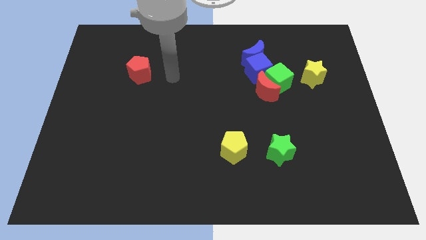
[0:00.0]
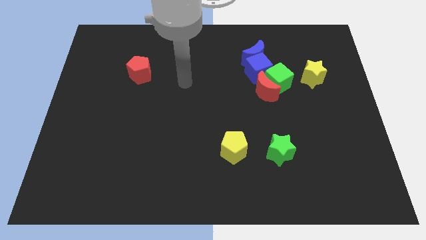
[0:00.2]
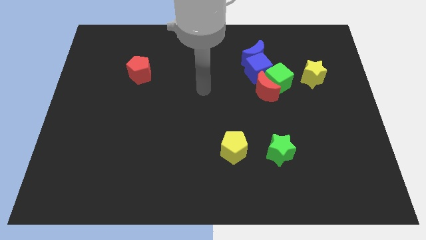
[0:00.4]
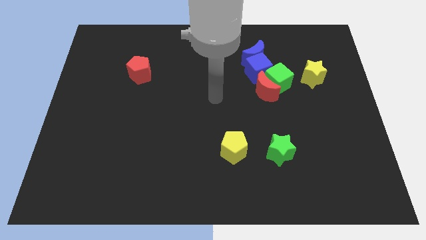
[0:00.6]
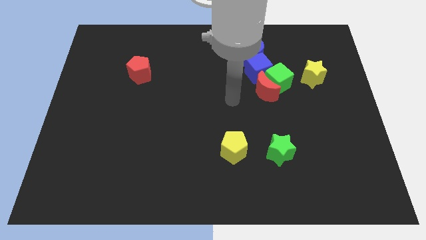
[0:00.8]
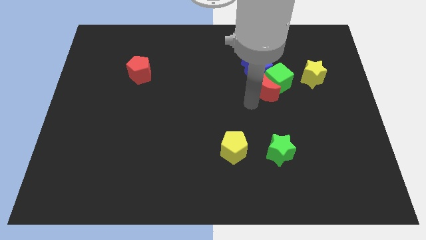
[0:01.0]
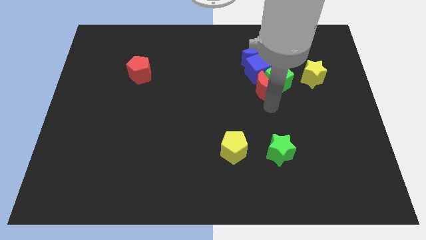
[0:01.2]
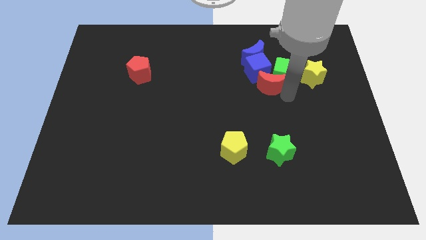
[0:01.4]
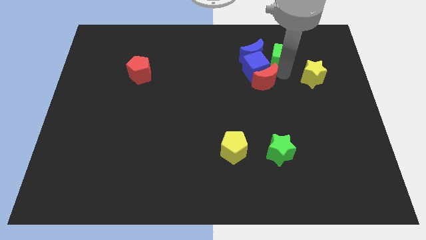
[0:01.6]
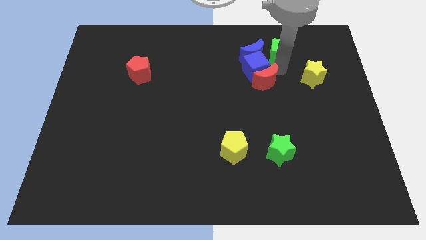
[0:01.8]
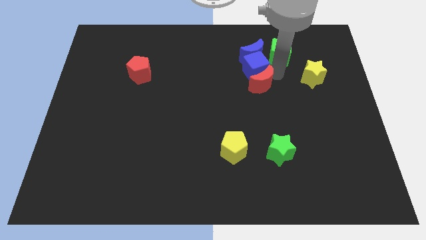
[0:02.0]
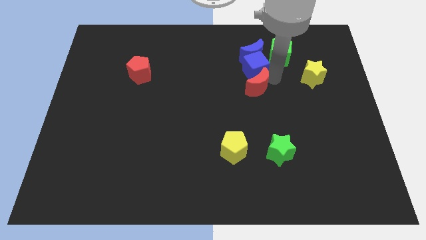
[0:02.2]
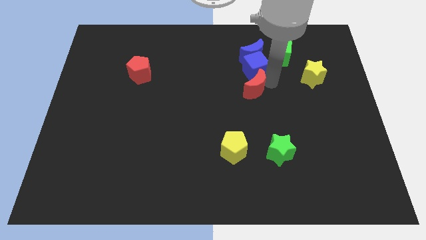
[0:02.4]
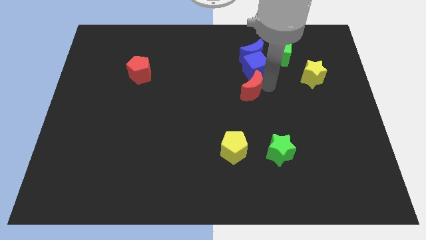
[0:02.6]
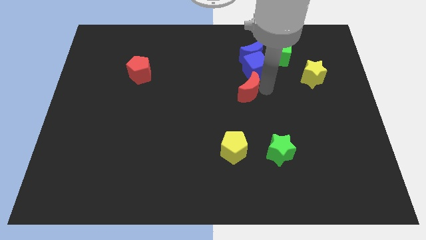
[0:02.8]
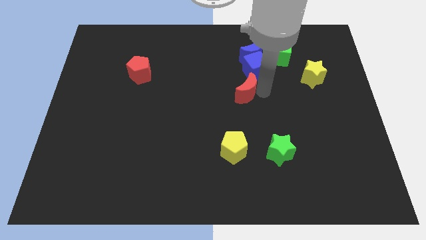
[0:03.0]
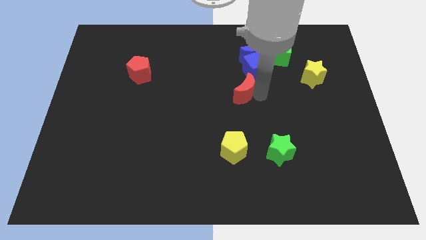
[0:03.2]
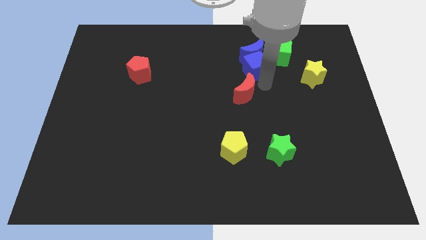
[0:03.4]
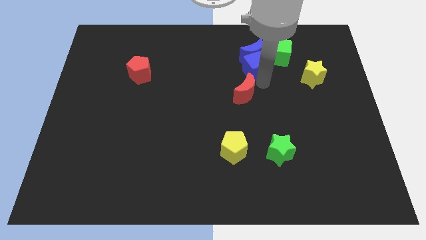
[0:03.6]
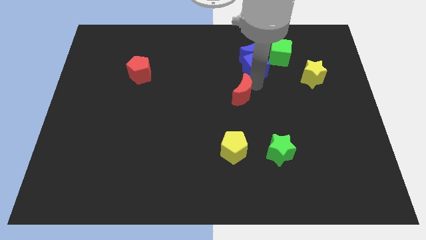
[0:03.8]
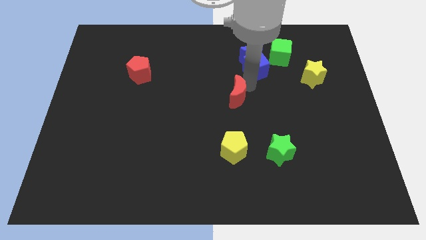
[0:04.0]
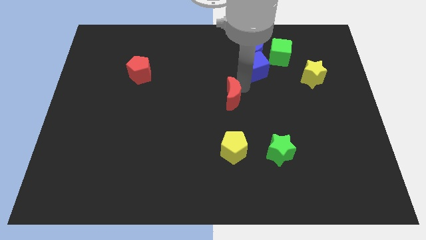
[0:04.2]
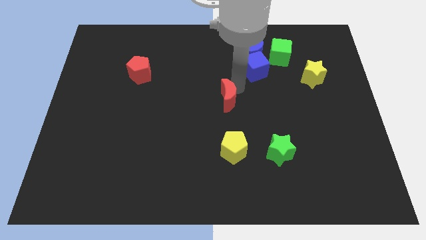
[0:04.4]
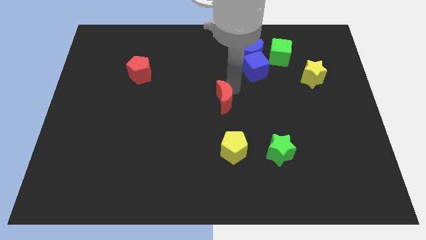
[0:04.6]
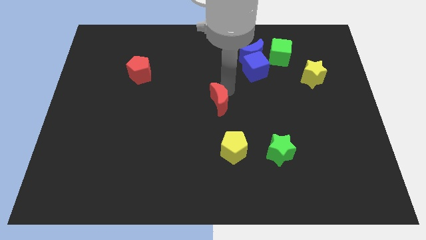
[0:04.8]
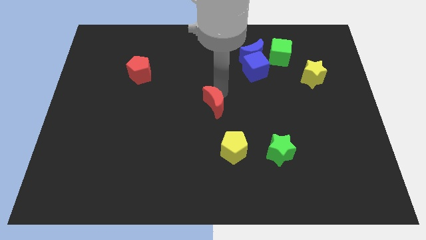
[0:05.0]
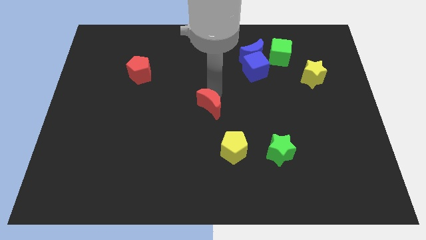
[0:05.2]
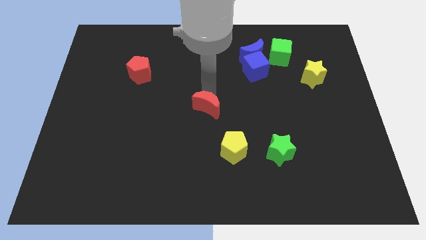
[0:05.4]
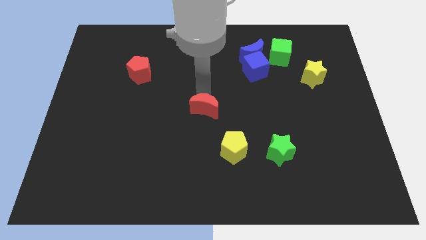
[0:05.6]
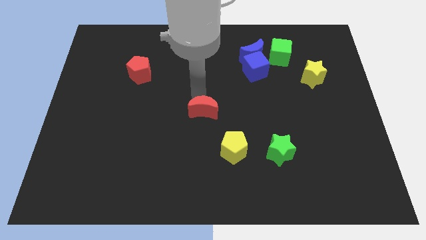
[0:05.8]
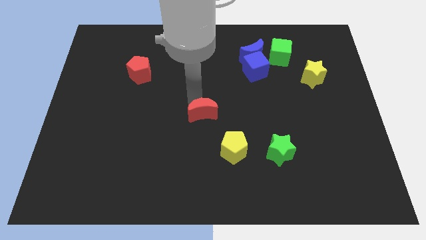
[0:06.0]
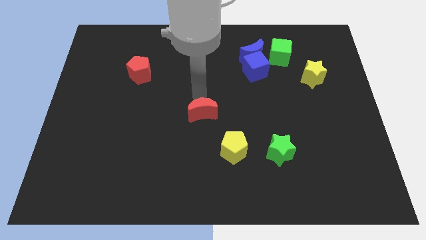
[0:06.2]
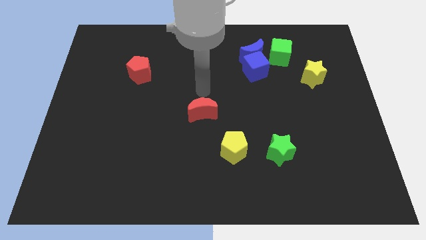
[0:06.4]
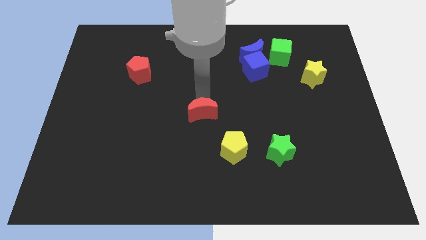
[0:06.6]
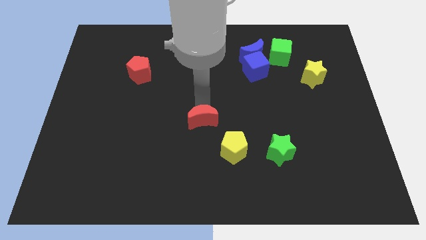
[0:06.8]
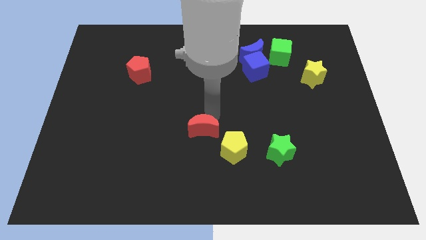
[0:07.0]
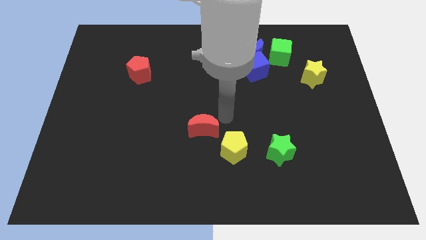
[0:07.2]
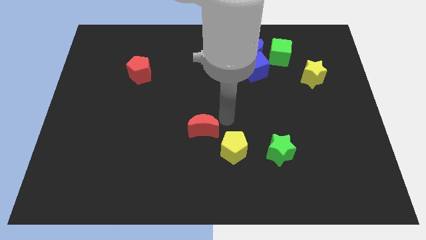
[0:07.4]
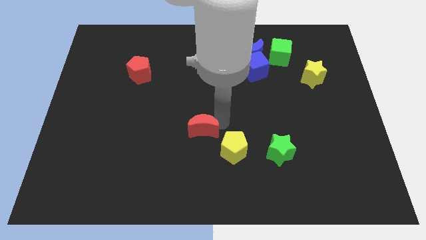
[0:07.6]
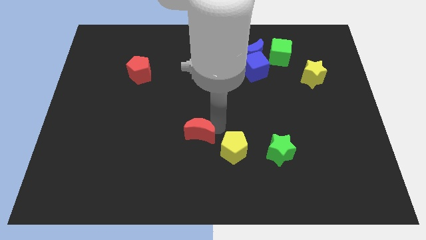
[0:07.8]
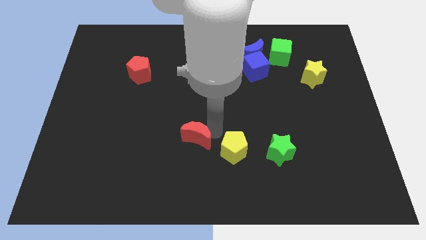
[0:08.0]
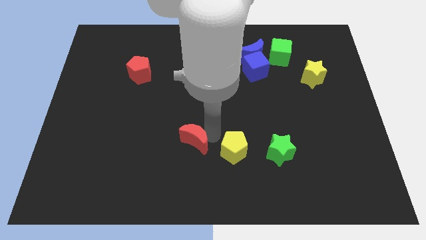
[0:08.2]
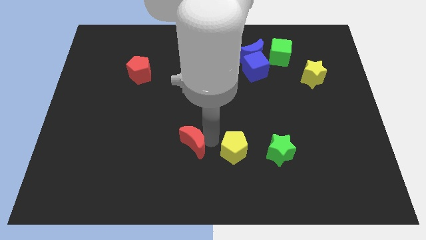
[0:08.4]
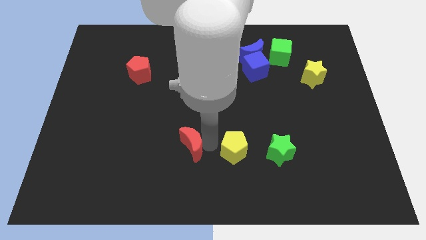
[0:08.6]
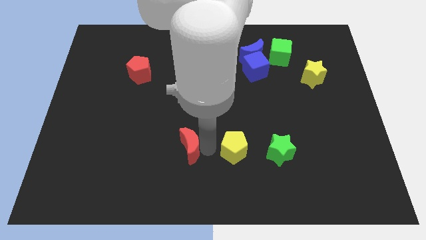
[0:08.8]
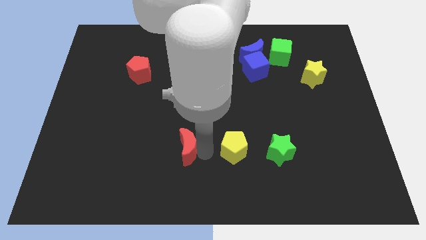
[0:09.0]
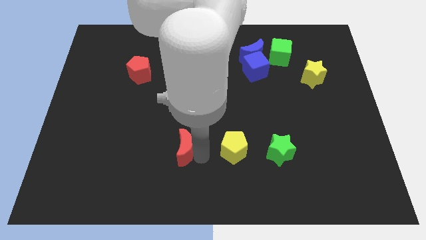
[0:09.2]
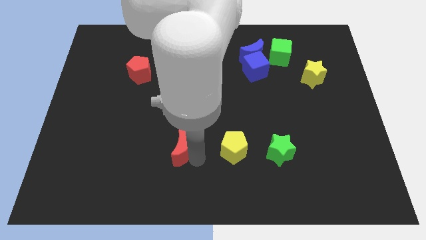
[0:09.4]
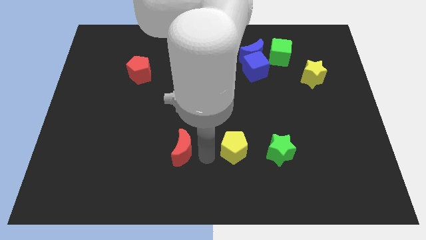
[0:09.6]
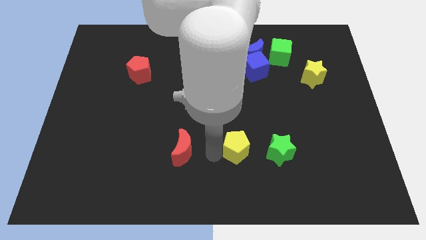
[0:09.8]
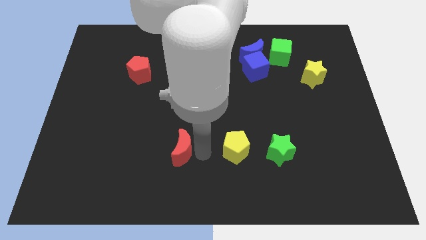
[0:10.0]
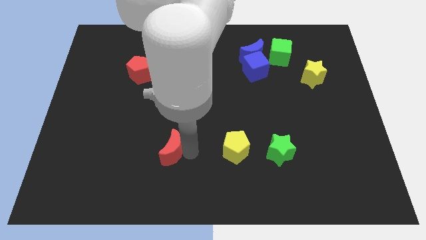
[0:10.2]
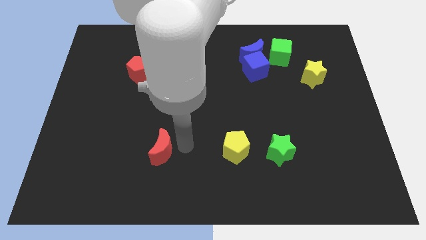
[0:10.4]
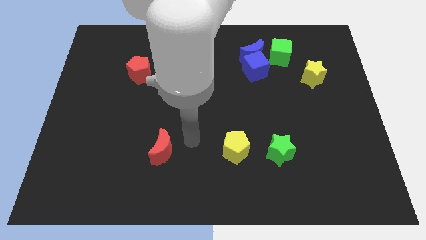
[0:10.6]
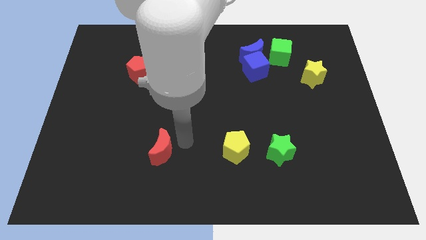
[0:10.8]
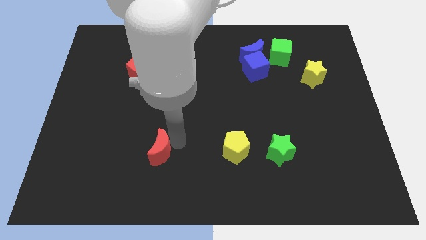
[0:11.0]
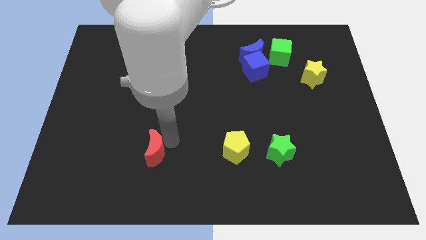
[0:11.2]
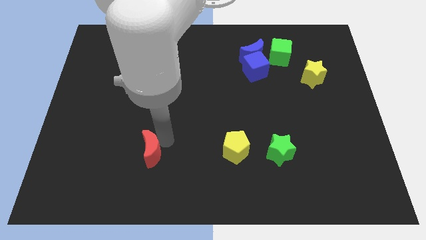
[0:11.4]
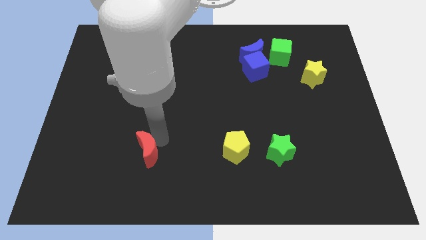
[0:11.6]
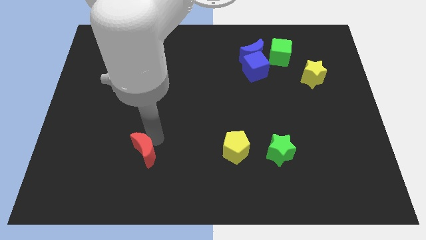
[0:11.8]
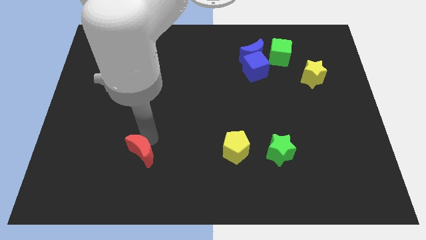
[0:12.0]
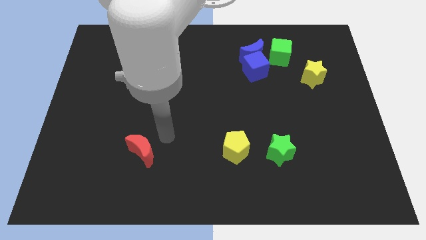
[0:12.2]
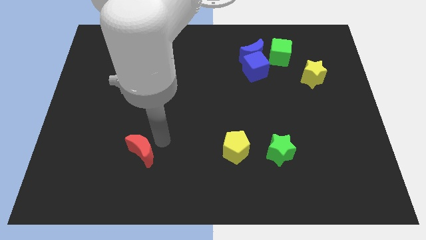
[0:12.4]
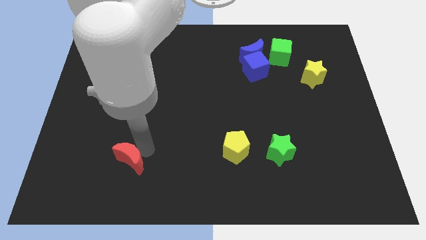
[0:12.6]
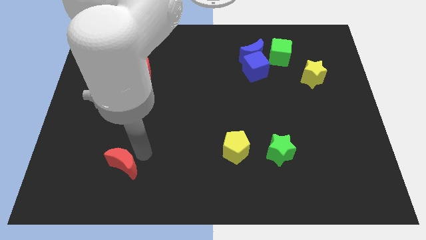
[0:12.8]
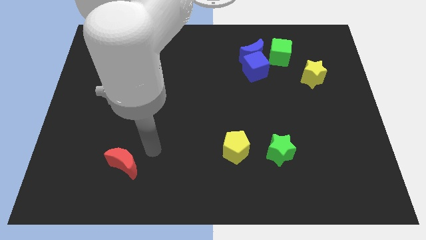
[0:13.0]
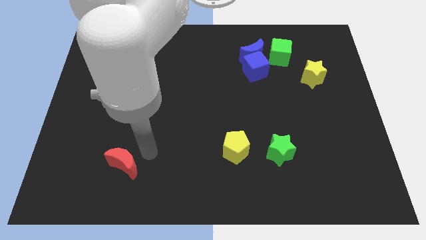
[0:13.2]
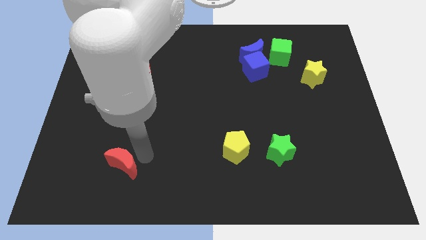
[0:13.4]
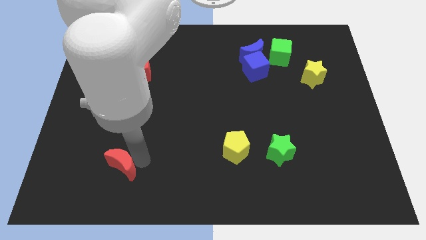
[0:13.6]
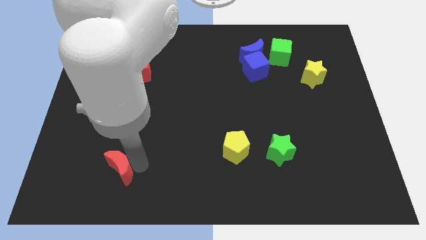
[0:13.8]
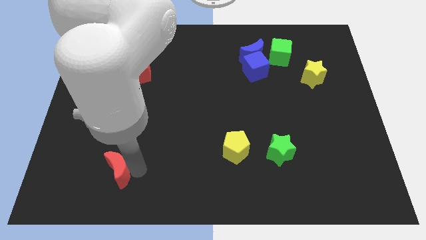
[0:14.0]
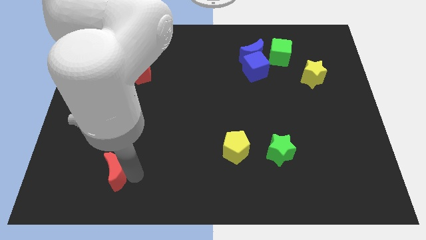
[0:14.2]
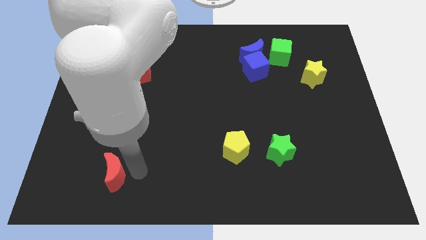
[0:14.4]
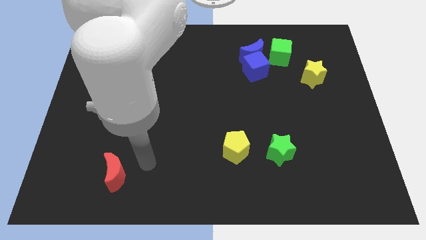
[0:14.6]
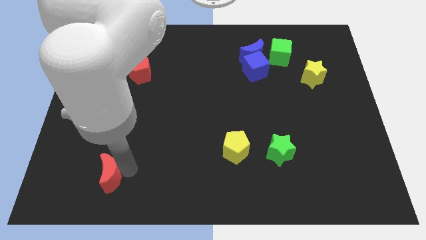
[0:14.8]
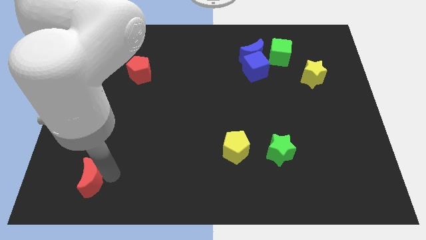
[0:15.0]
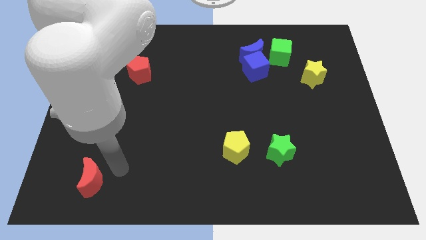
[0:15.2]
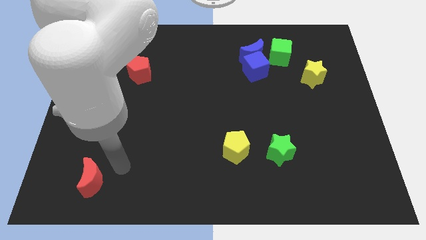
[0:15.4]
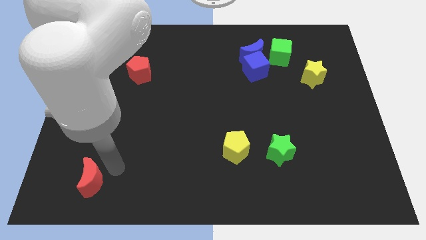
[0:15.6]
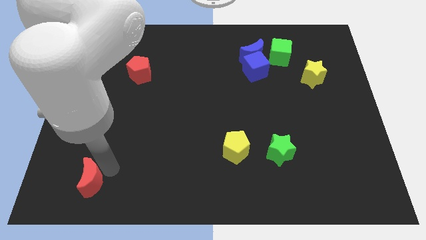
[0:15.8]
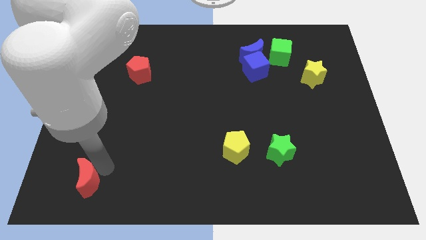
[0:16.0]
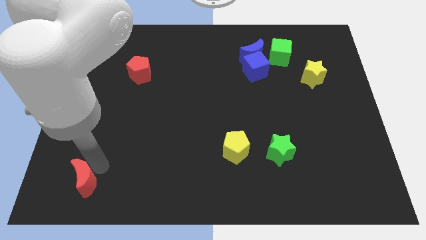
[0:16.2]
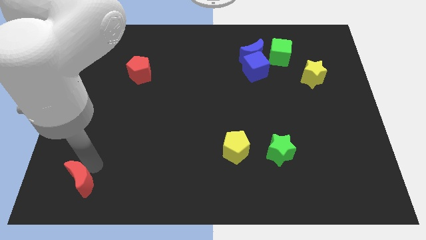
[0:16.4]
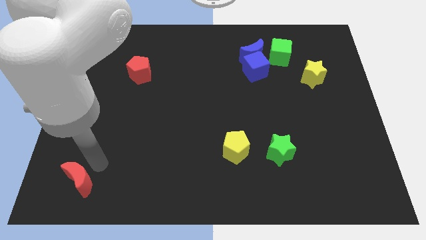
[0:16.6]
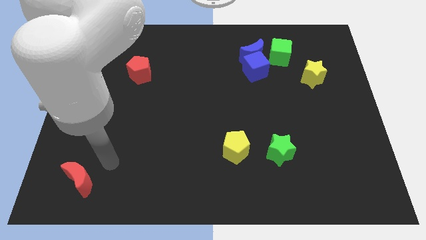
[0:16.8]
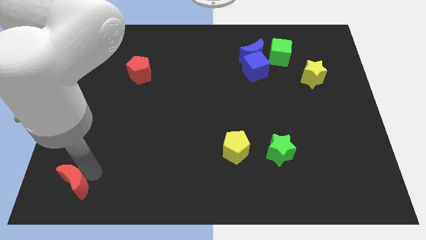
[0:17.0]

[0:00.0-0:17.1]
move the red moon to the bottom left of the board
